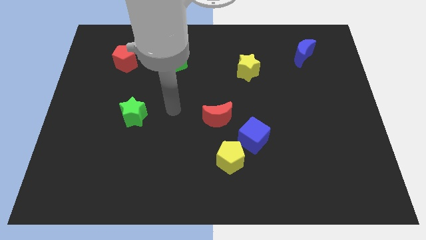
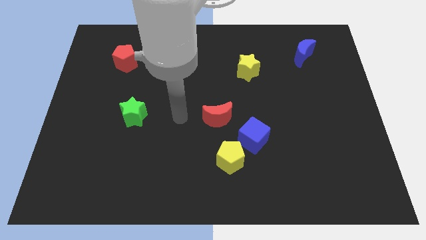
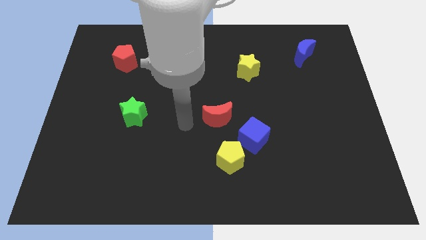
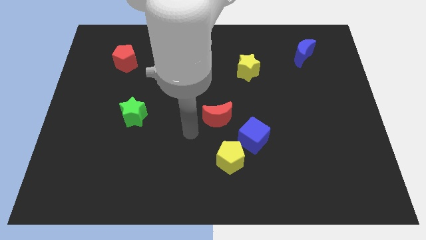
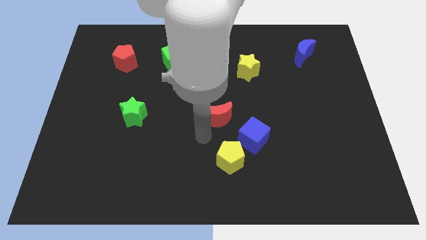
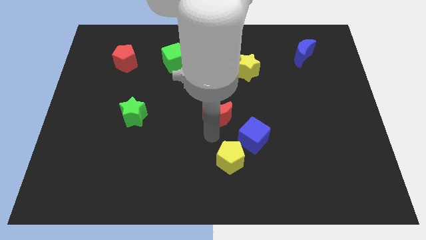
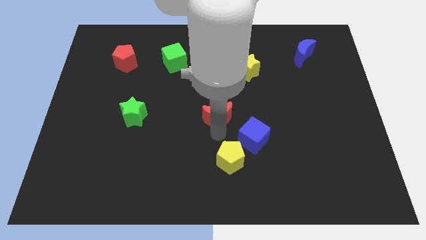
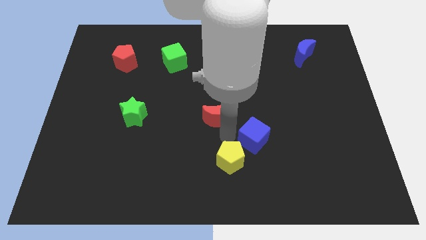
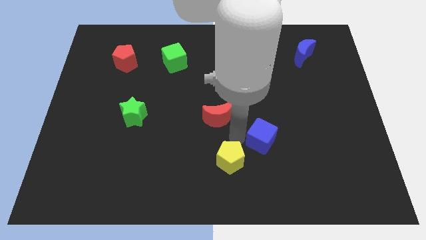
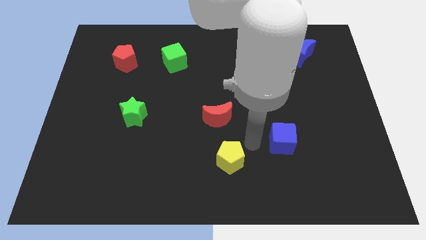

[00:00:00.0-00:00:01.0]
move the yellow pentagon away from the blue cube

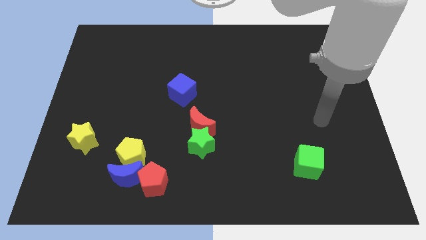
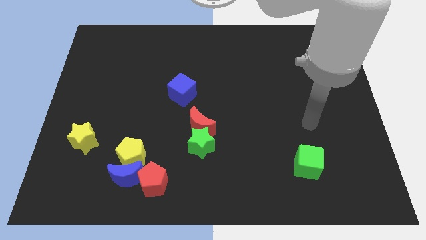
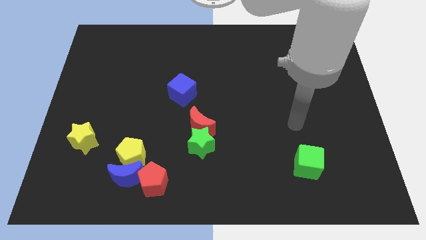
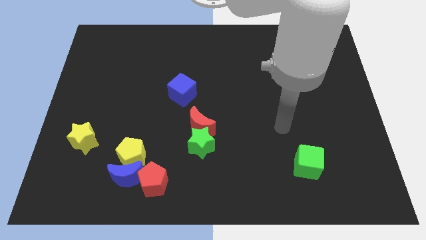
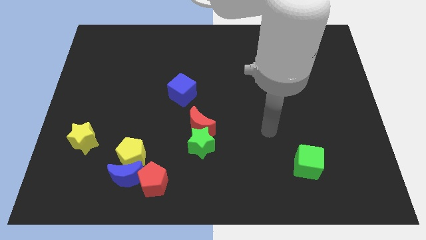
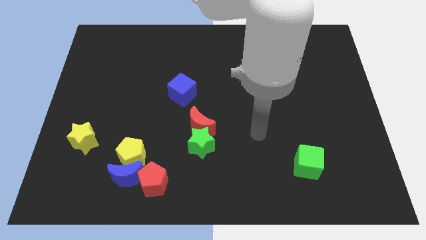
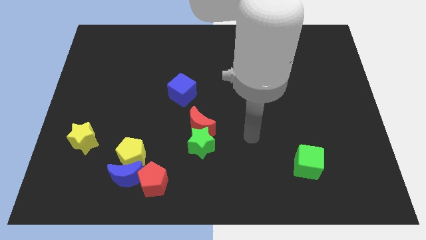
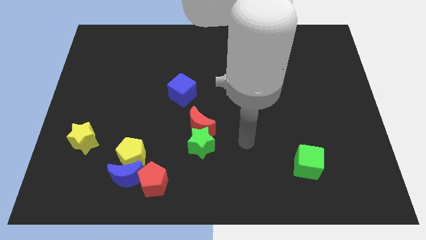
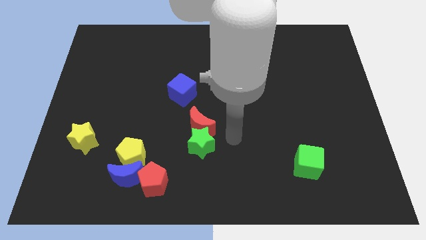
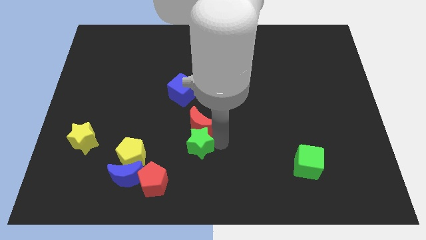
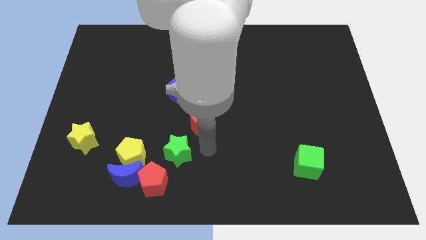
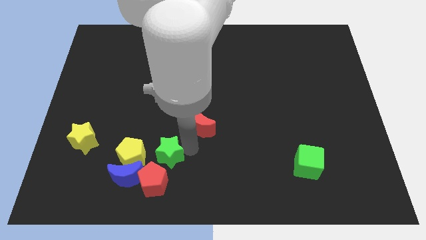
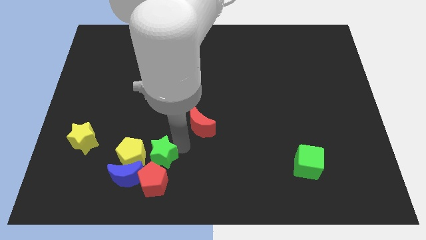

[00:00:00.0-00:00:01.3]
pull the red moon apart from the green star

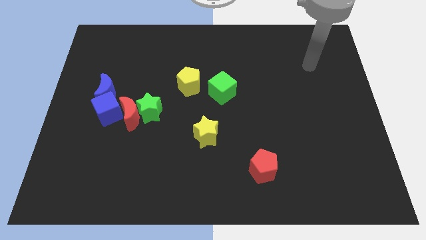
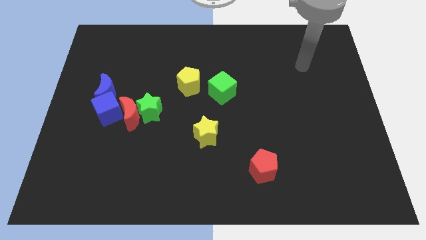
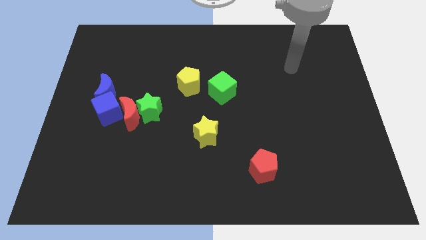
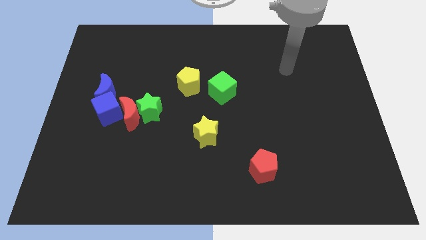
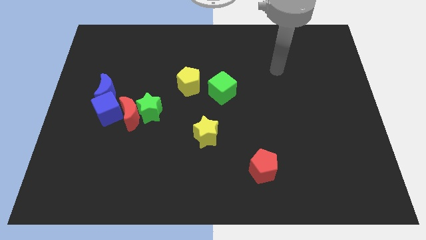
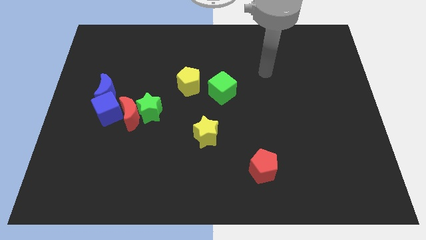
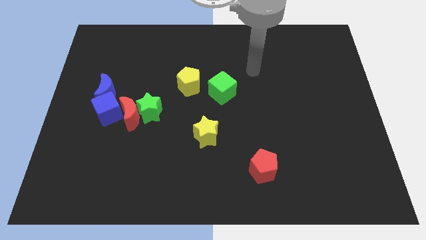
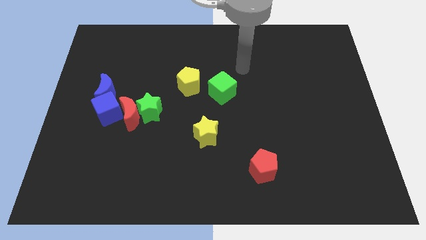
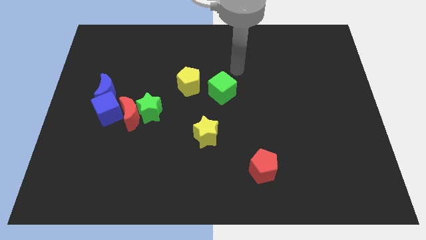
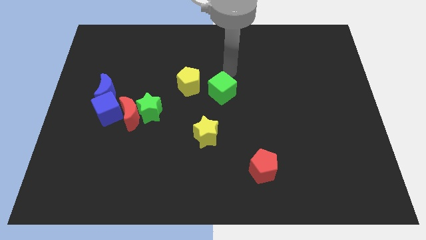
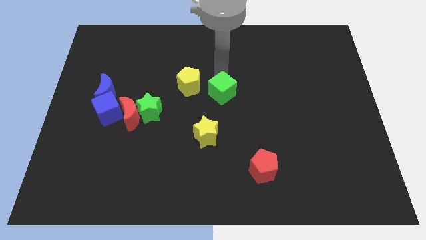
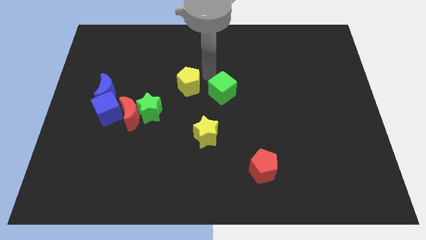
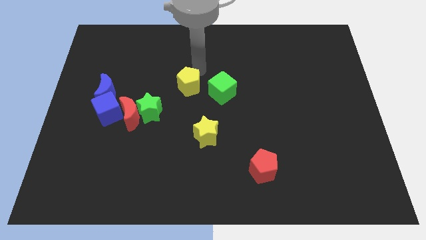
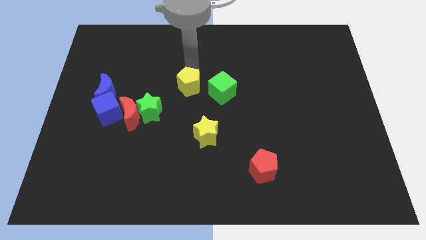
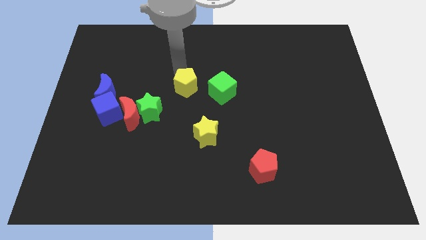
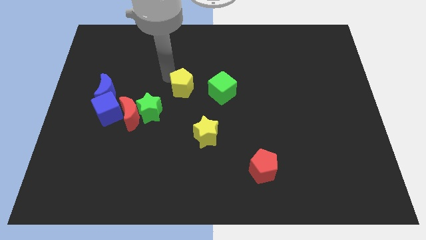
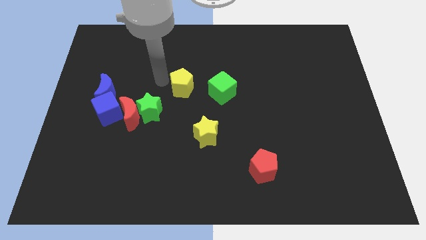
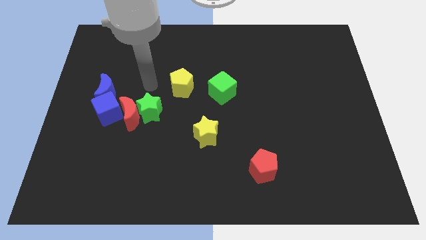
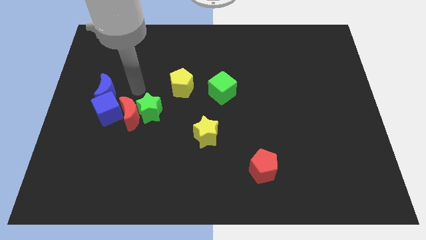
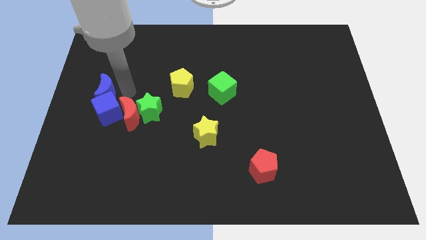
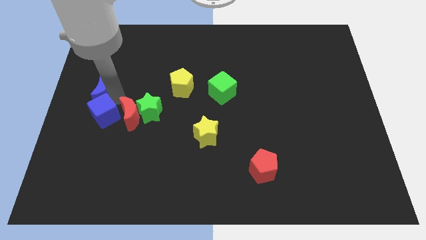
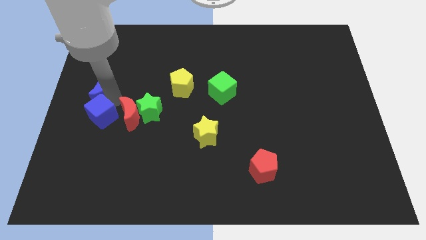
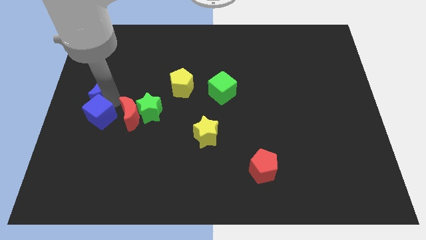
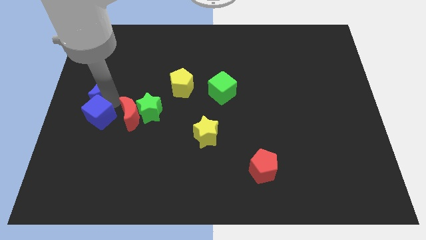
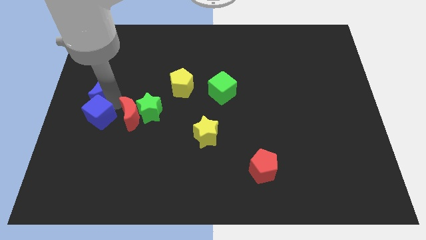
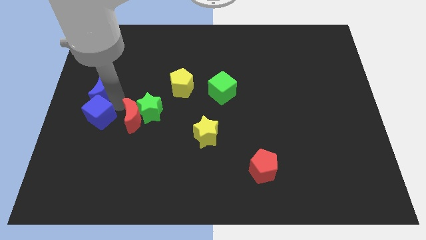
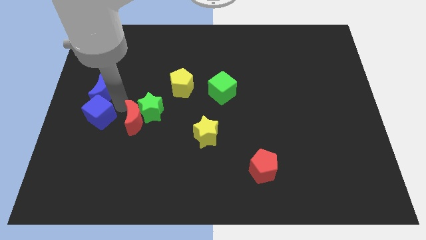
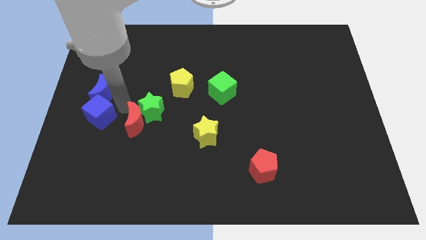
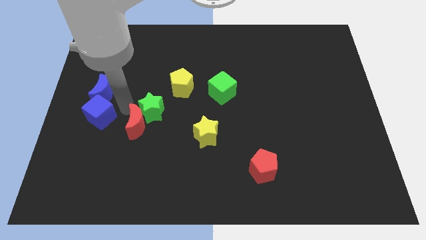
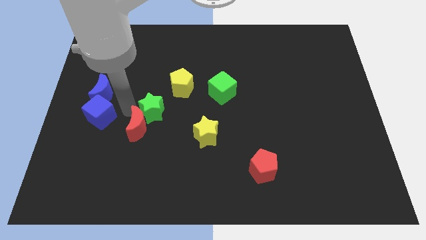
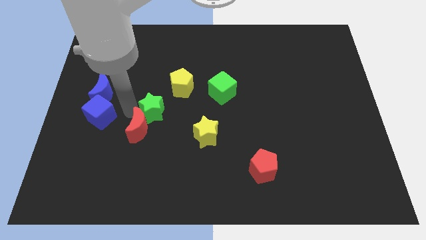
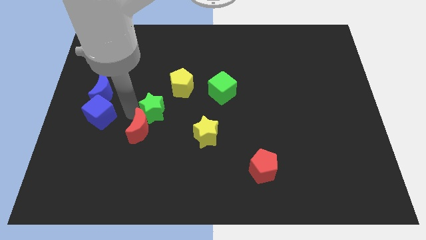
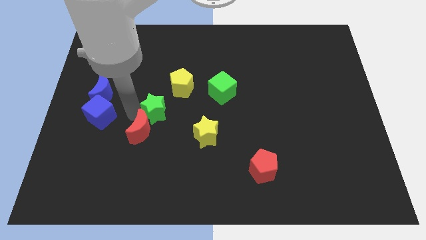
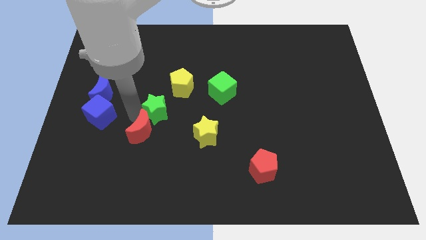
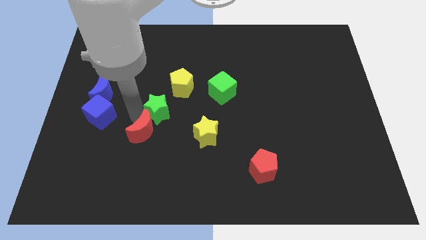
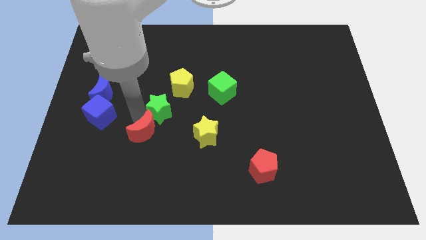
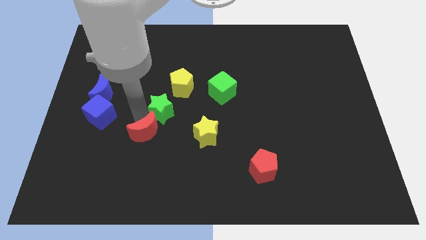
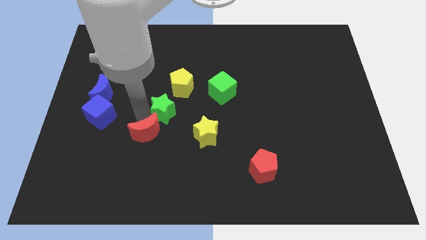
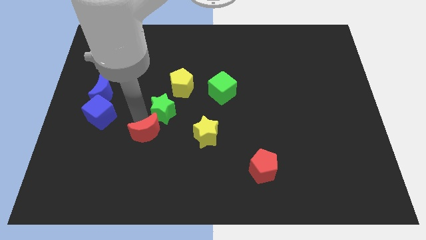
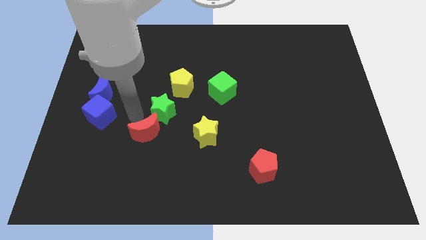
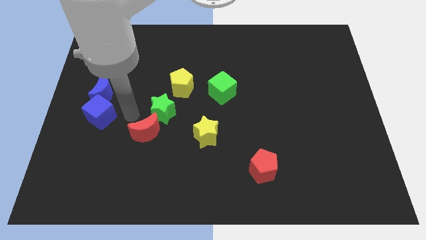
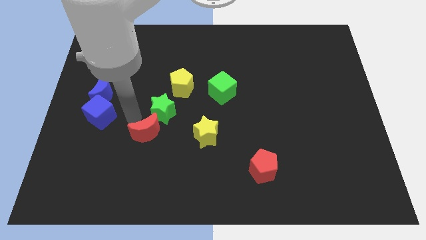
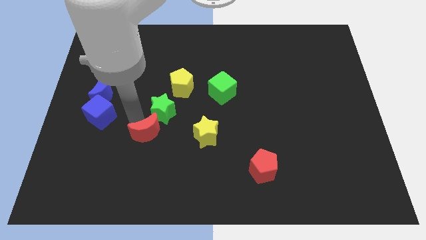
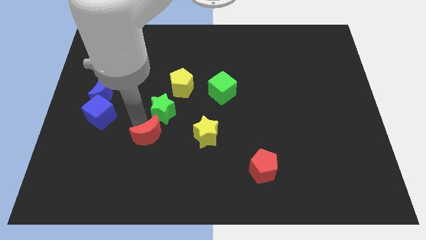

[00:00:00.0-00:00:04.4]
pull the red moon apart from the green star, blue cube, and blue moon

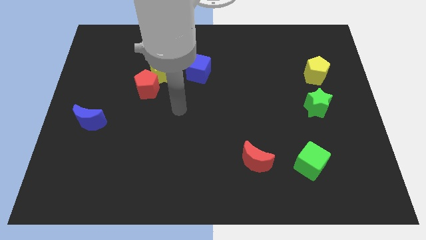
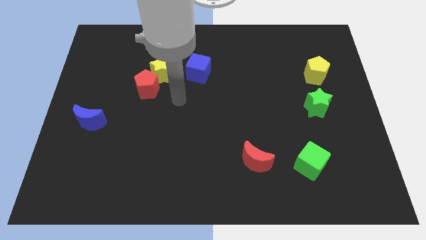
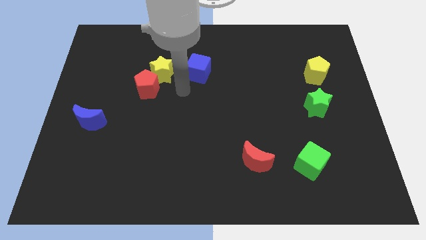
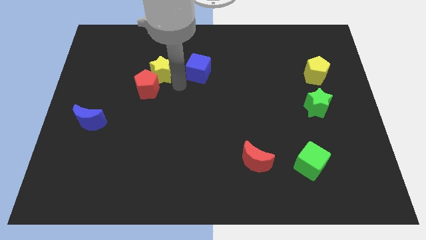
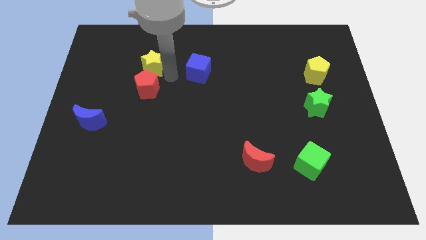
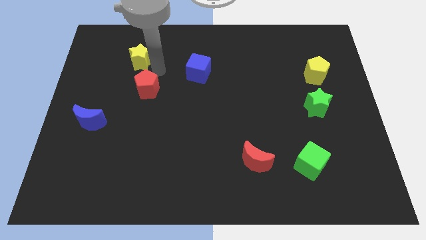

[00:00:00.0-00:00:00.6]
pull the red pentagon apart from the yellow star

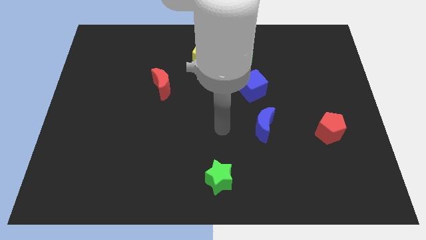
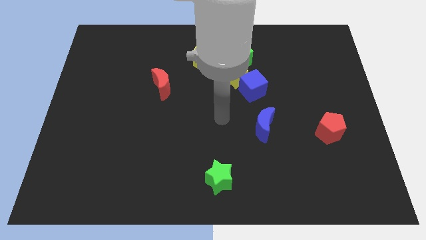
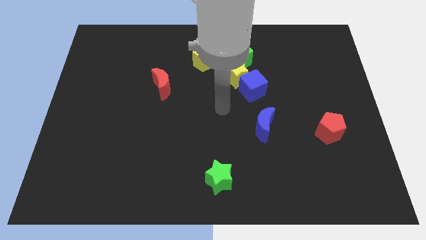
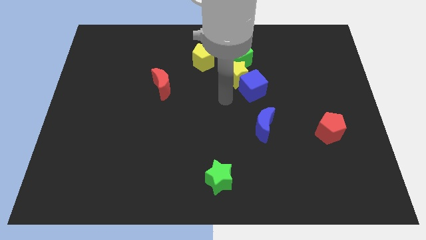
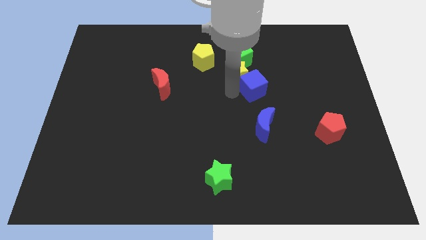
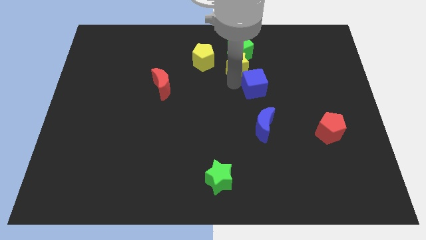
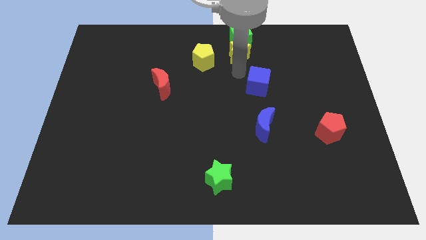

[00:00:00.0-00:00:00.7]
pull the blue cube apart from the yellow star

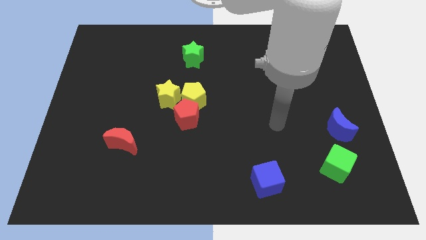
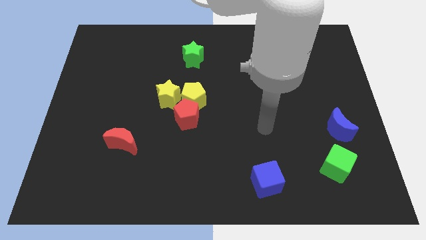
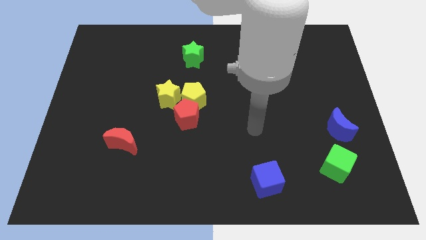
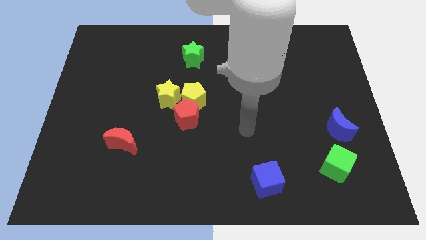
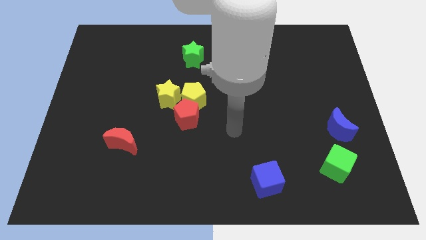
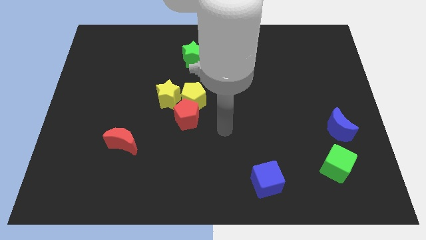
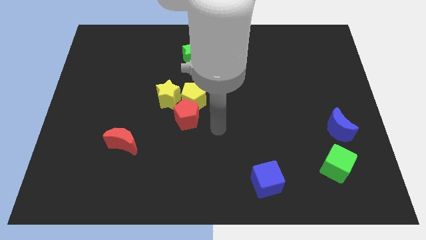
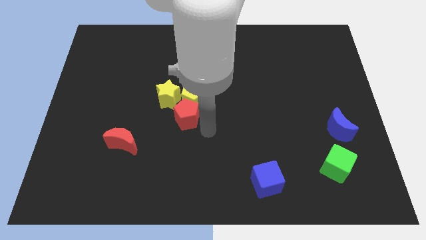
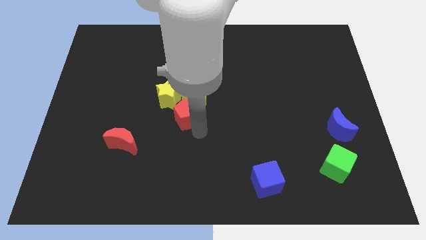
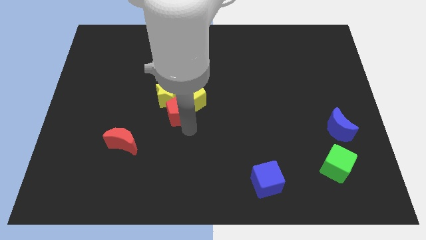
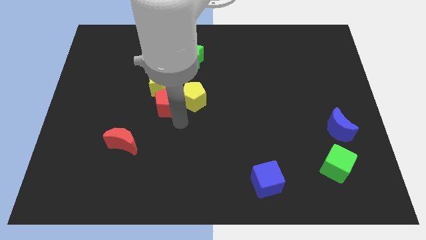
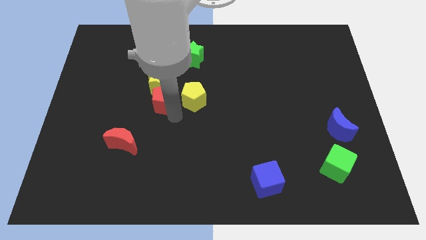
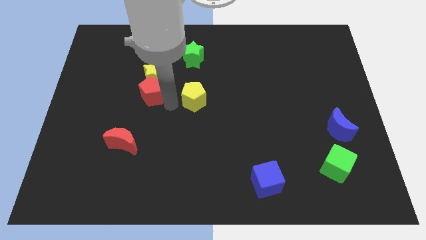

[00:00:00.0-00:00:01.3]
separate the yellow pentagon from the red pentagon and yellow star
